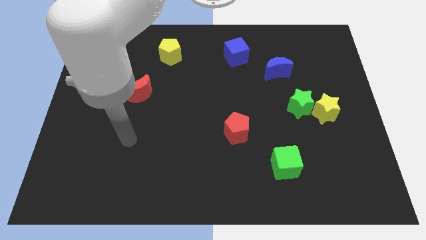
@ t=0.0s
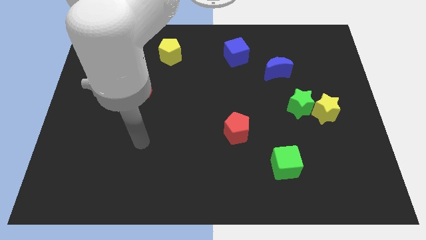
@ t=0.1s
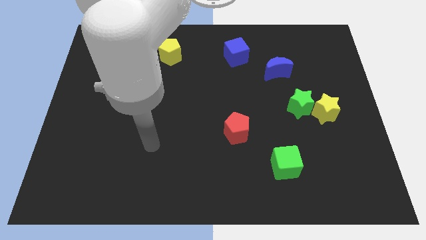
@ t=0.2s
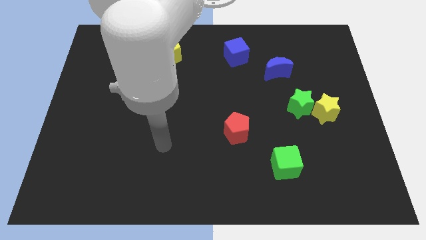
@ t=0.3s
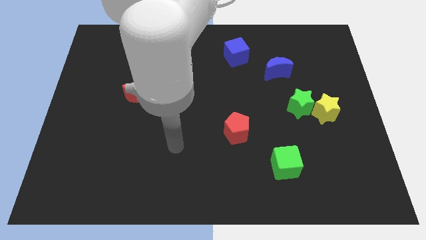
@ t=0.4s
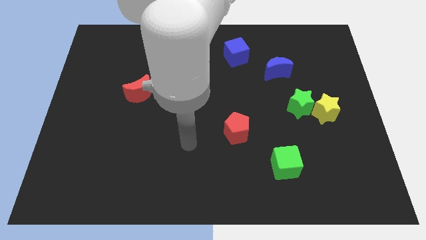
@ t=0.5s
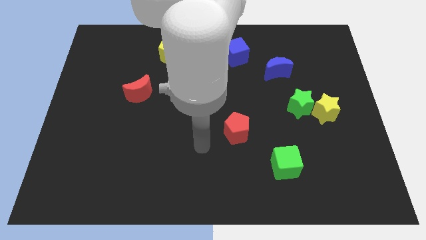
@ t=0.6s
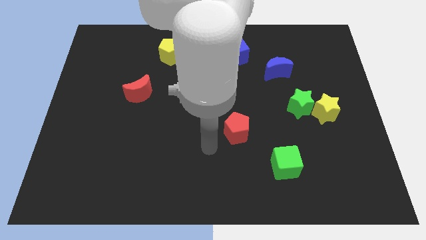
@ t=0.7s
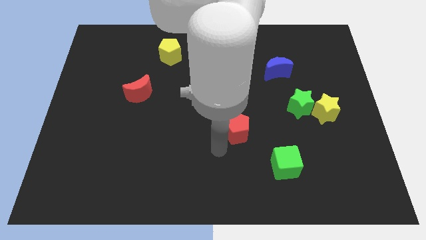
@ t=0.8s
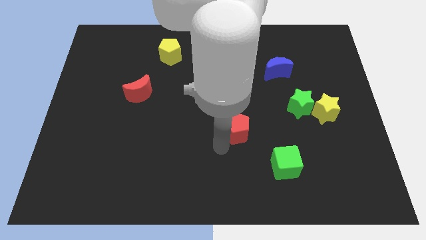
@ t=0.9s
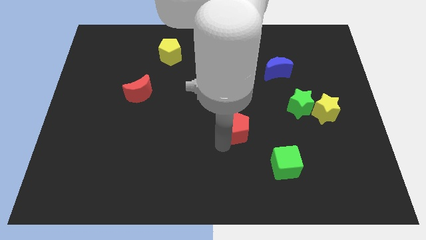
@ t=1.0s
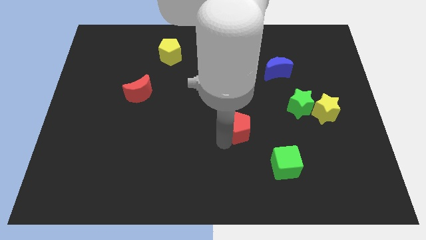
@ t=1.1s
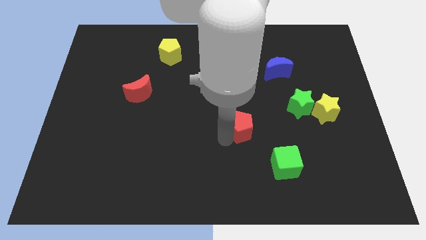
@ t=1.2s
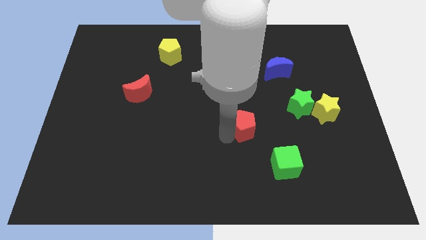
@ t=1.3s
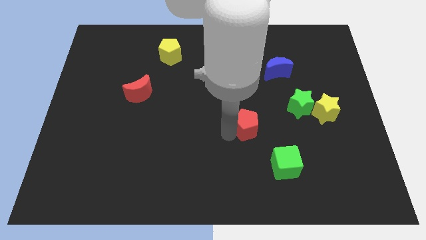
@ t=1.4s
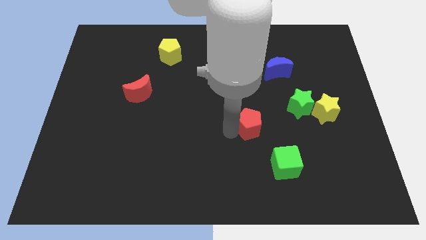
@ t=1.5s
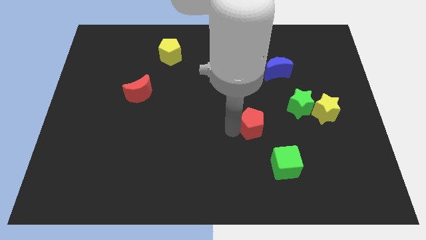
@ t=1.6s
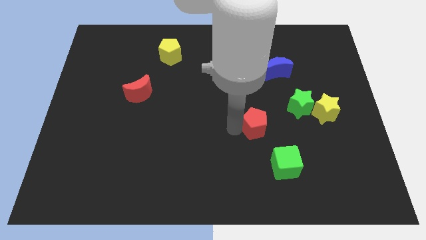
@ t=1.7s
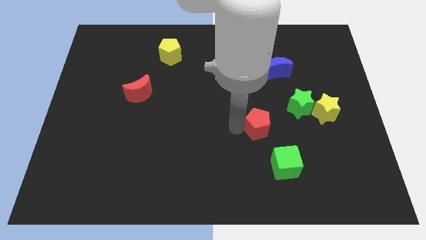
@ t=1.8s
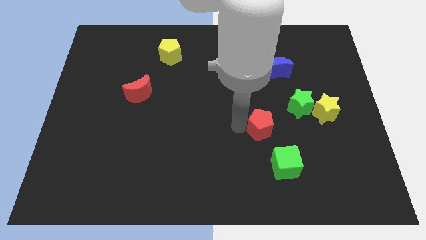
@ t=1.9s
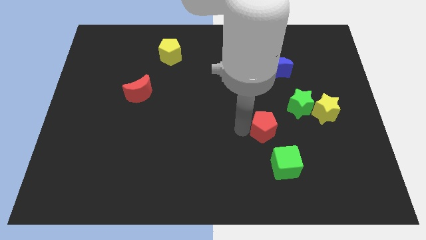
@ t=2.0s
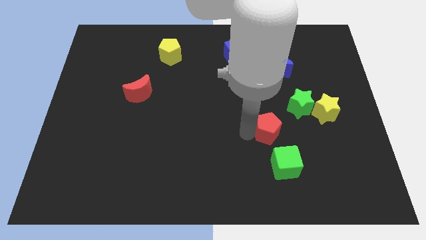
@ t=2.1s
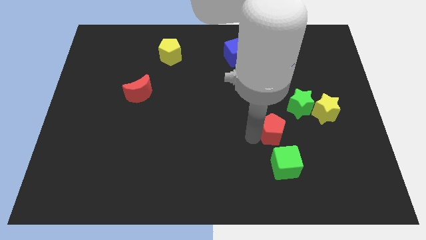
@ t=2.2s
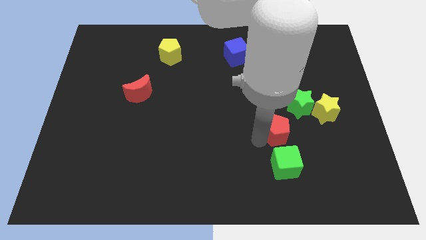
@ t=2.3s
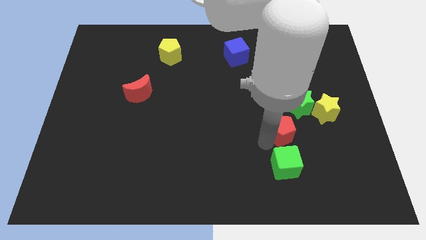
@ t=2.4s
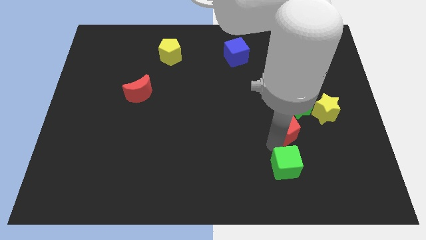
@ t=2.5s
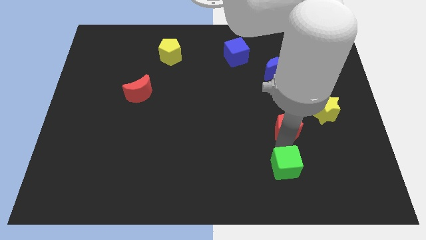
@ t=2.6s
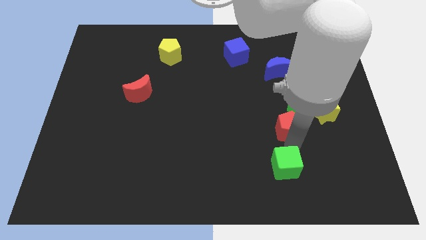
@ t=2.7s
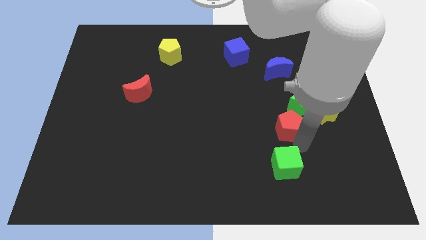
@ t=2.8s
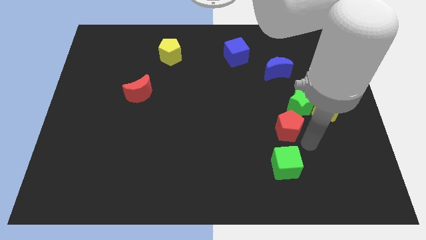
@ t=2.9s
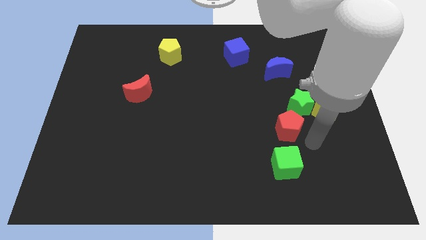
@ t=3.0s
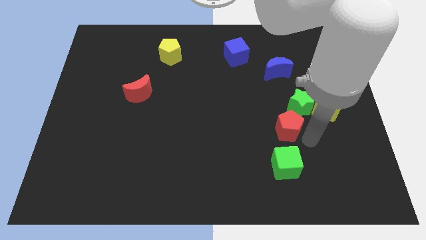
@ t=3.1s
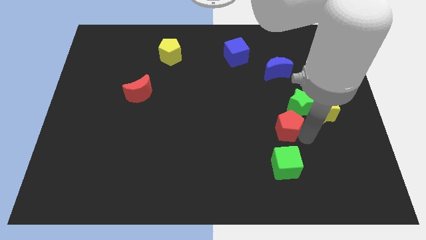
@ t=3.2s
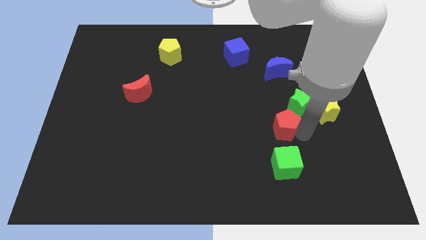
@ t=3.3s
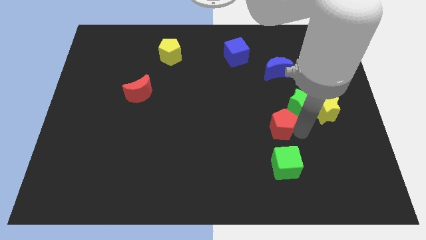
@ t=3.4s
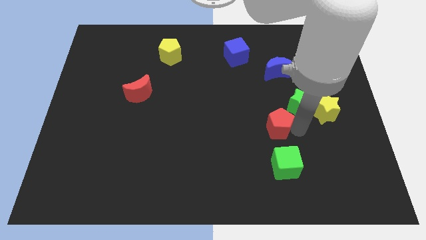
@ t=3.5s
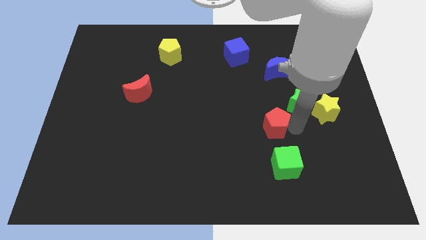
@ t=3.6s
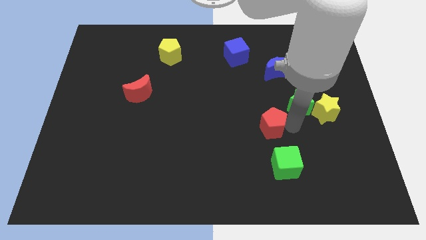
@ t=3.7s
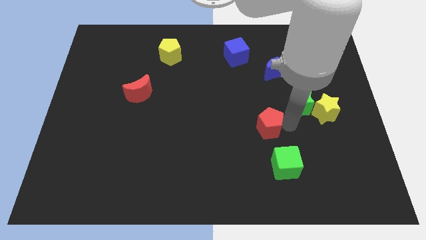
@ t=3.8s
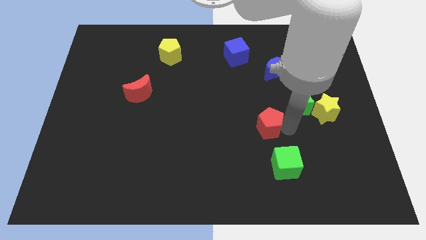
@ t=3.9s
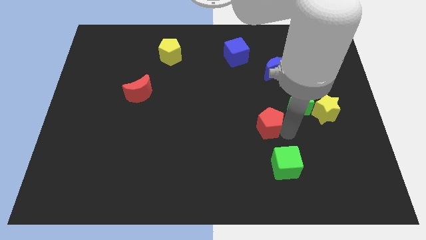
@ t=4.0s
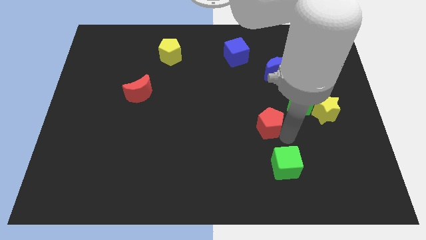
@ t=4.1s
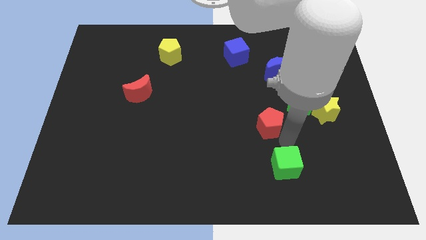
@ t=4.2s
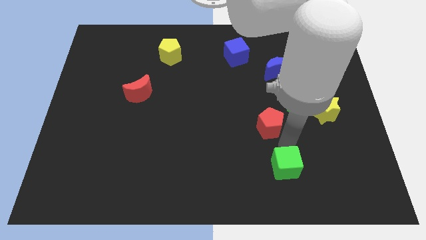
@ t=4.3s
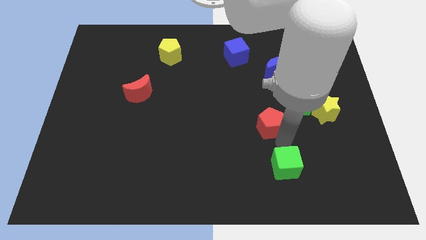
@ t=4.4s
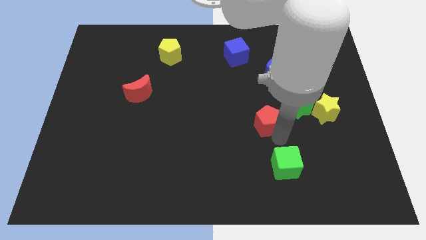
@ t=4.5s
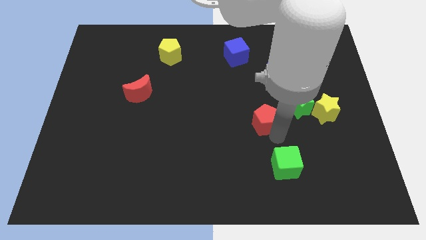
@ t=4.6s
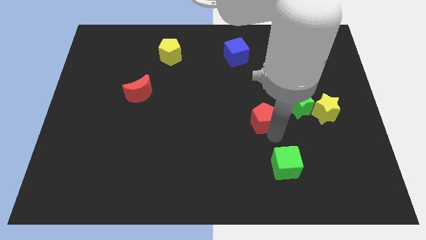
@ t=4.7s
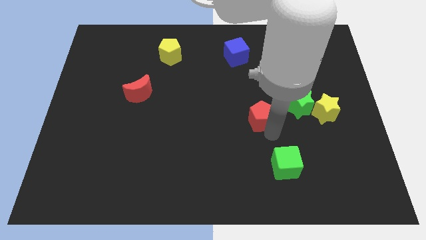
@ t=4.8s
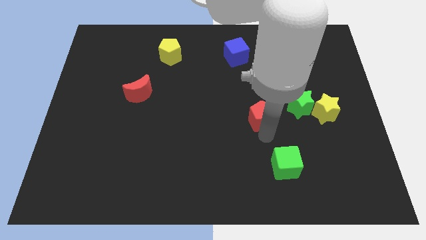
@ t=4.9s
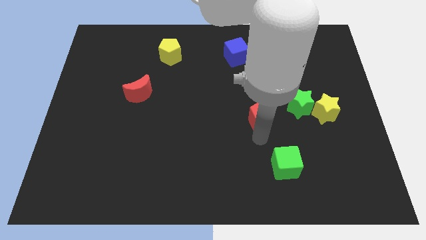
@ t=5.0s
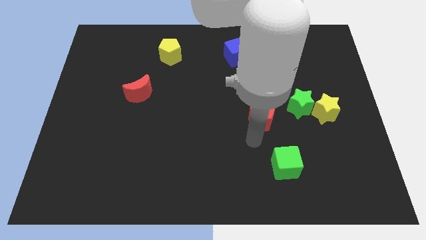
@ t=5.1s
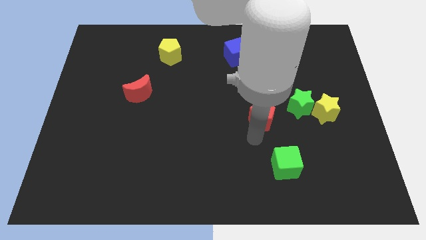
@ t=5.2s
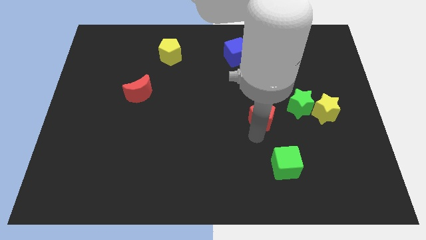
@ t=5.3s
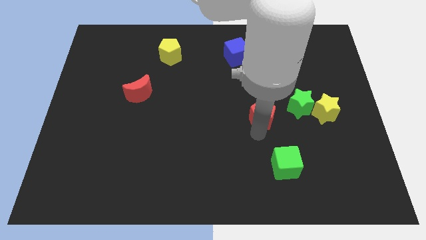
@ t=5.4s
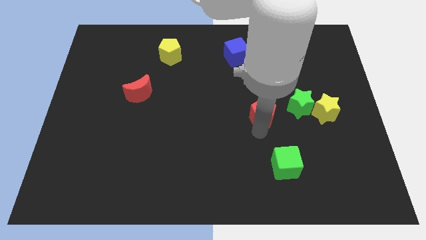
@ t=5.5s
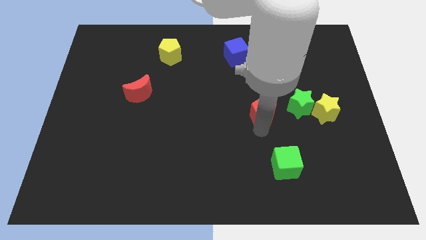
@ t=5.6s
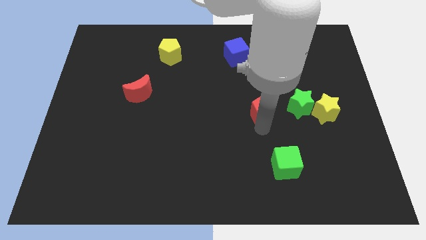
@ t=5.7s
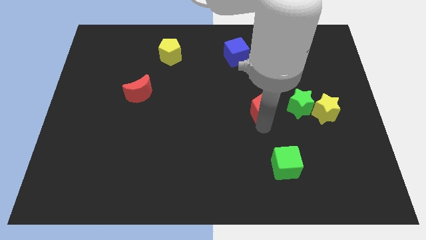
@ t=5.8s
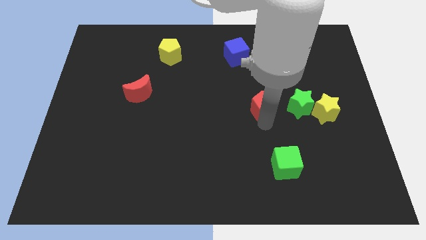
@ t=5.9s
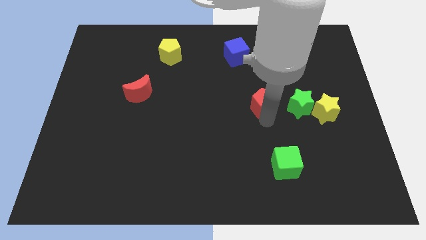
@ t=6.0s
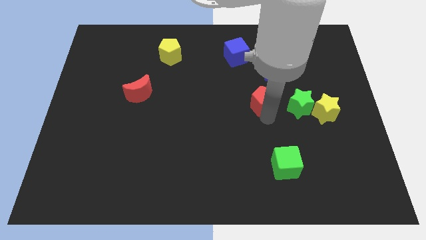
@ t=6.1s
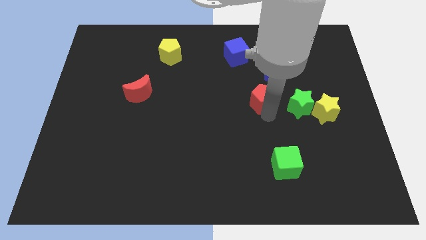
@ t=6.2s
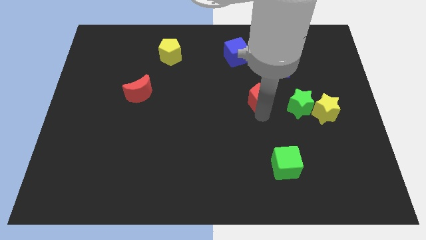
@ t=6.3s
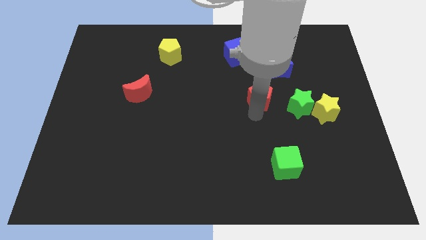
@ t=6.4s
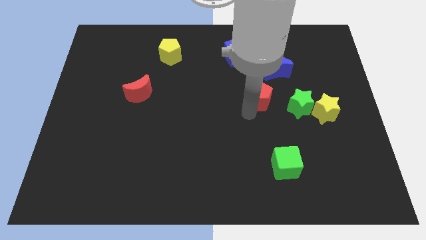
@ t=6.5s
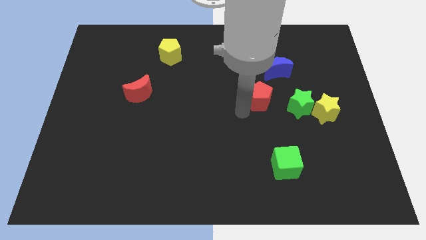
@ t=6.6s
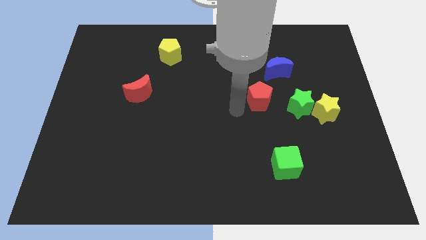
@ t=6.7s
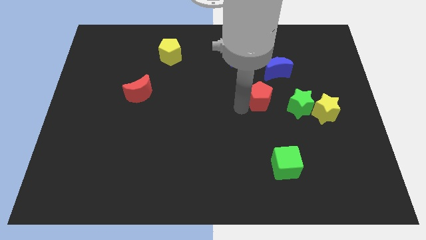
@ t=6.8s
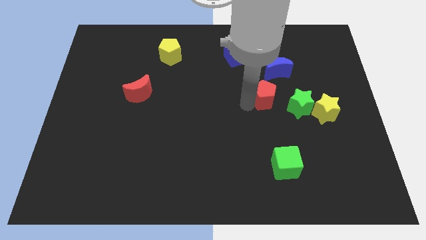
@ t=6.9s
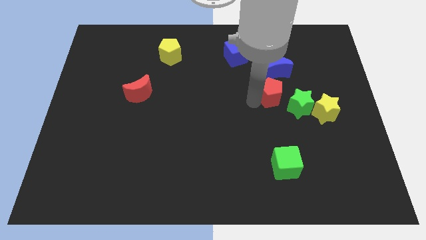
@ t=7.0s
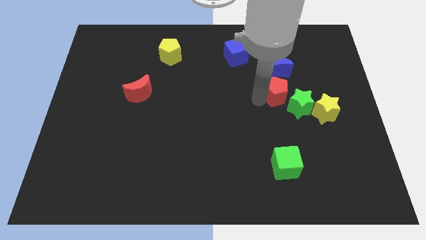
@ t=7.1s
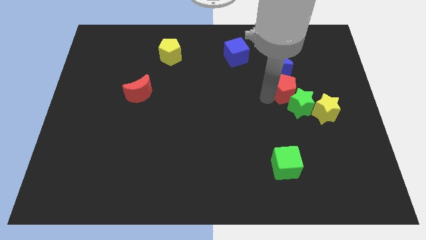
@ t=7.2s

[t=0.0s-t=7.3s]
put the red pentagon to the top side of the green star
